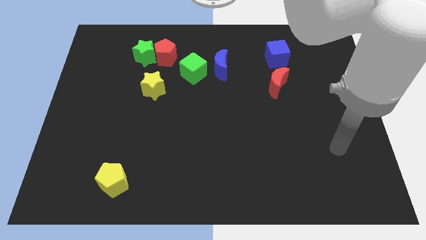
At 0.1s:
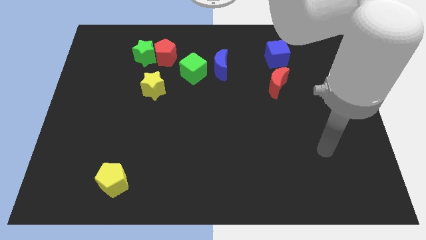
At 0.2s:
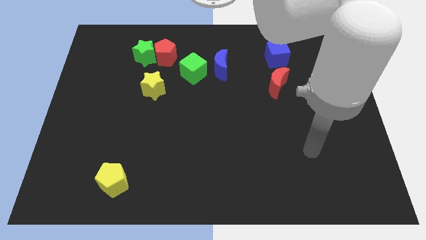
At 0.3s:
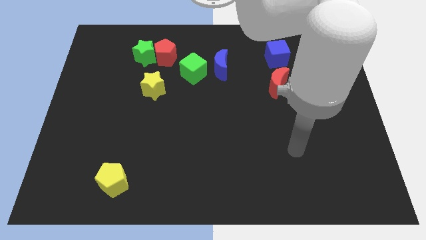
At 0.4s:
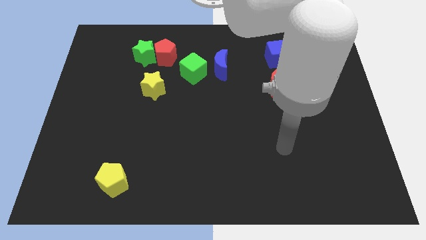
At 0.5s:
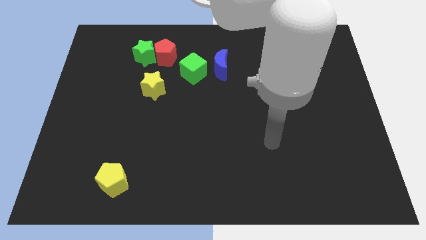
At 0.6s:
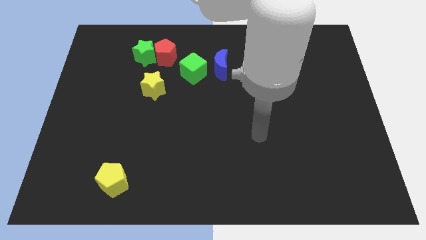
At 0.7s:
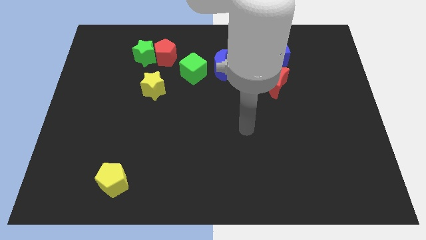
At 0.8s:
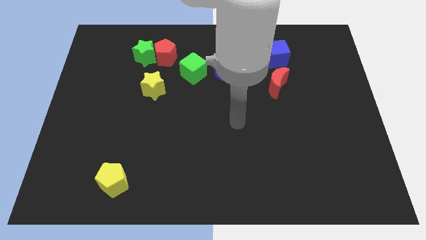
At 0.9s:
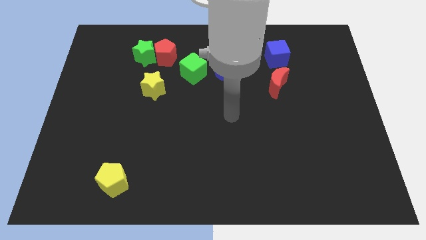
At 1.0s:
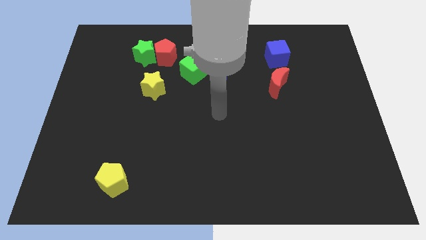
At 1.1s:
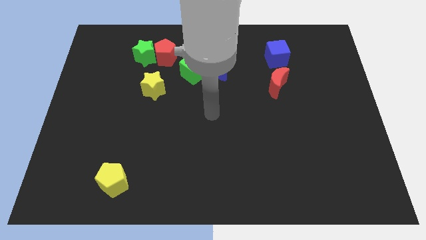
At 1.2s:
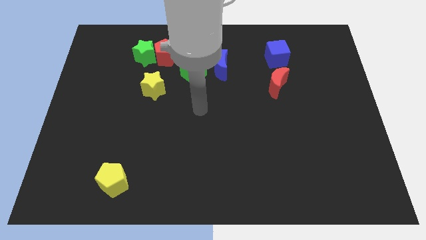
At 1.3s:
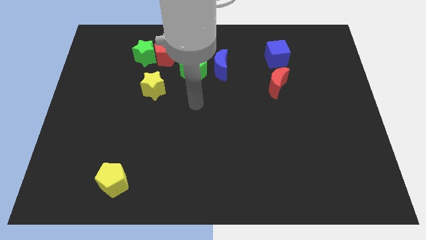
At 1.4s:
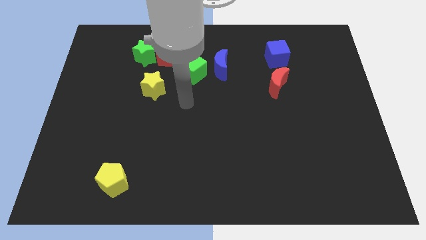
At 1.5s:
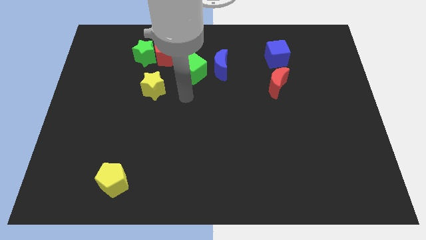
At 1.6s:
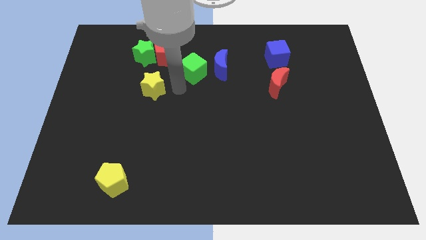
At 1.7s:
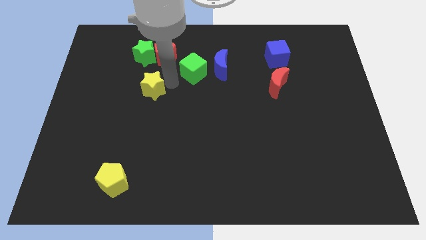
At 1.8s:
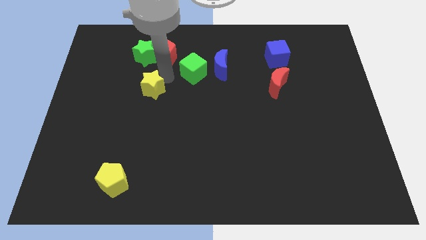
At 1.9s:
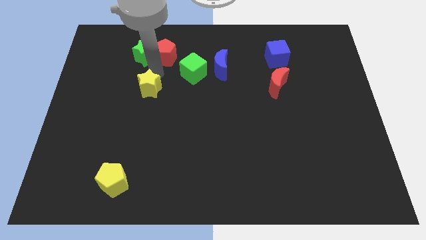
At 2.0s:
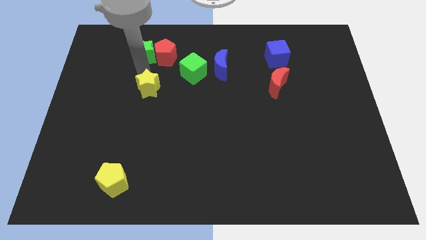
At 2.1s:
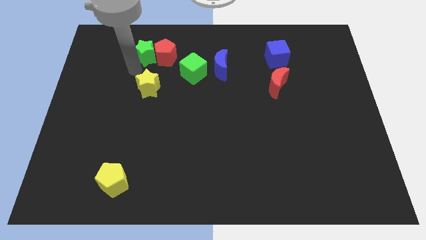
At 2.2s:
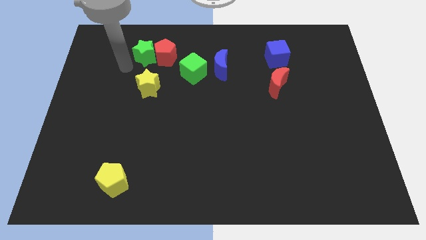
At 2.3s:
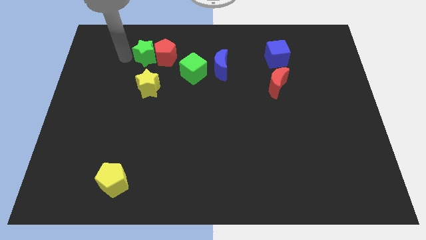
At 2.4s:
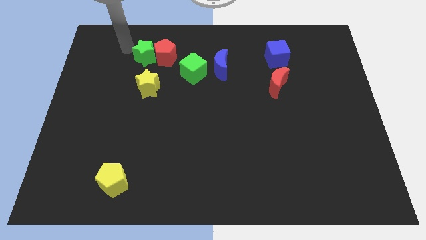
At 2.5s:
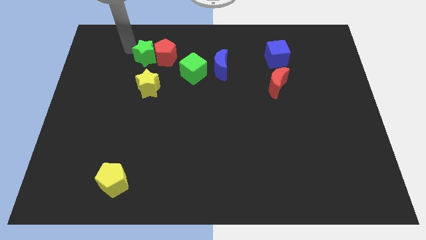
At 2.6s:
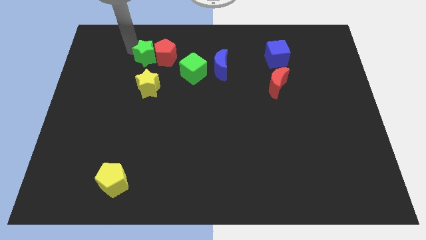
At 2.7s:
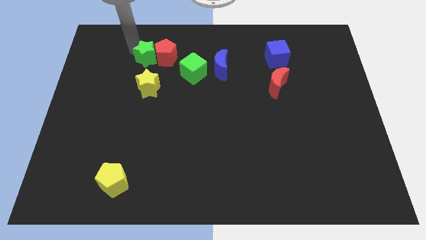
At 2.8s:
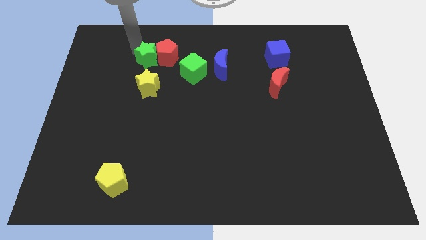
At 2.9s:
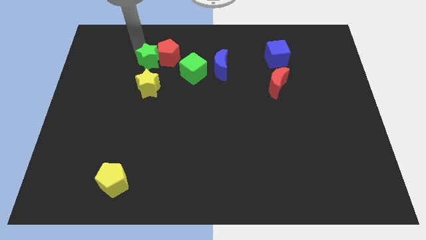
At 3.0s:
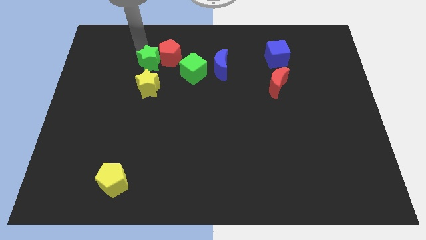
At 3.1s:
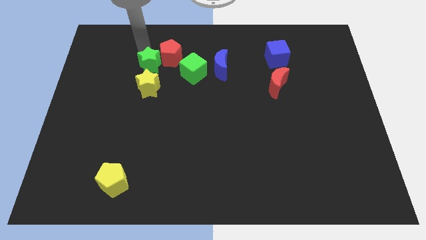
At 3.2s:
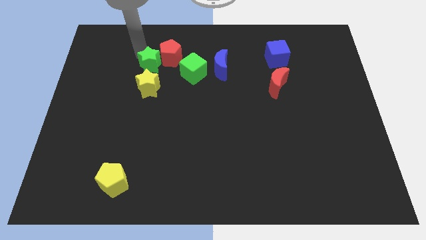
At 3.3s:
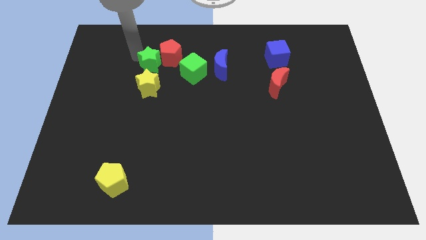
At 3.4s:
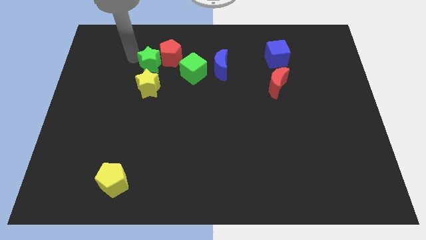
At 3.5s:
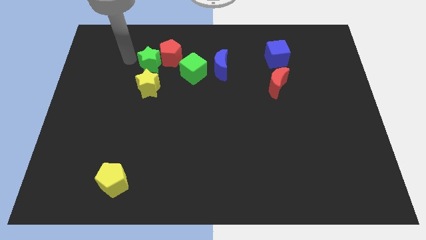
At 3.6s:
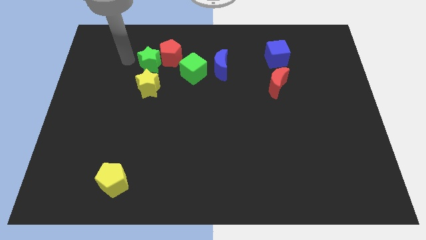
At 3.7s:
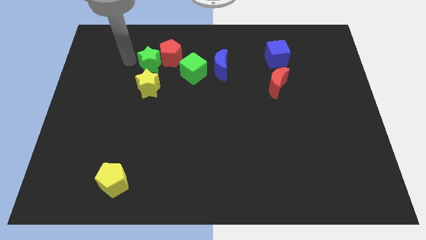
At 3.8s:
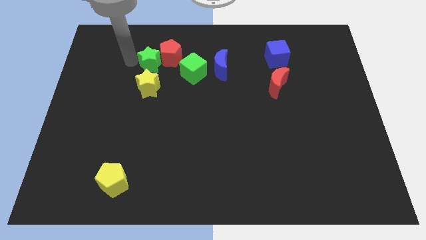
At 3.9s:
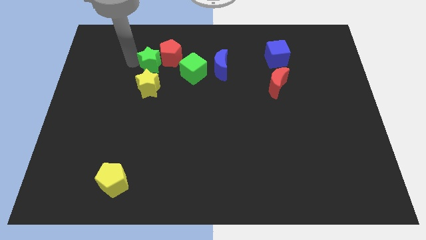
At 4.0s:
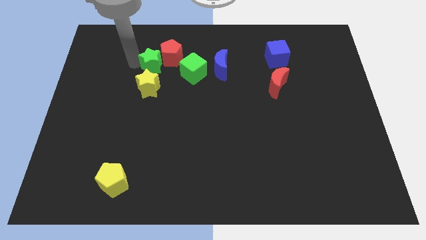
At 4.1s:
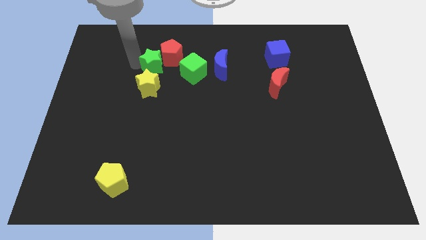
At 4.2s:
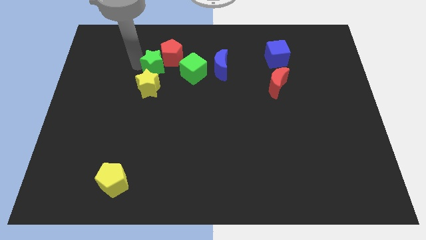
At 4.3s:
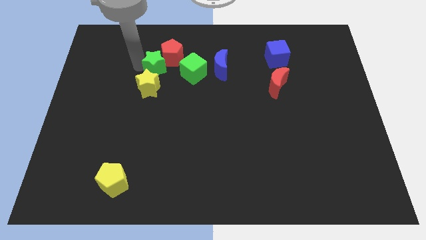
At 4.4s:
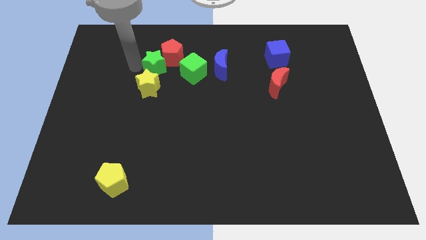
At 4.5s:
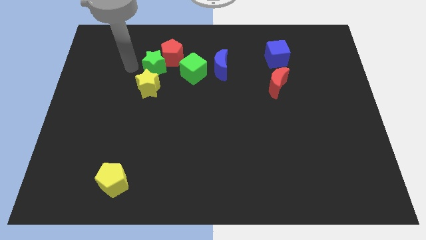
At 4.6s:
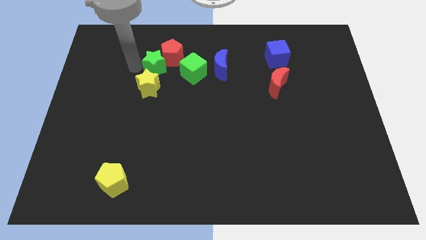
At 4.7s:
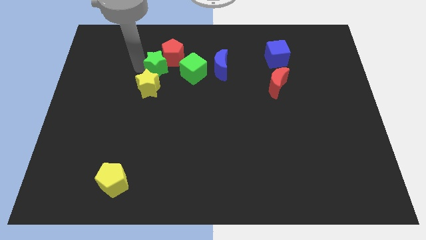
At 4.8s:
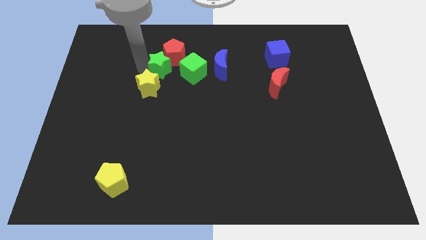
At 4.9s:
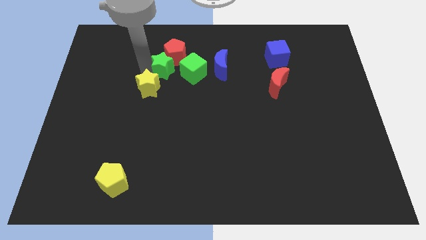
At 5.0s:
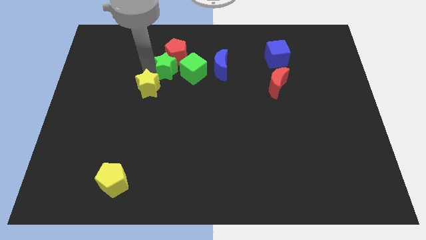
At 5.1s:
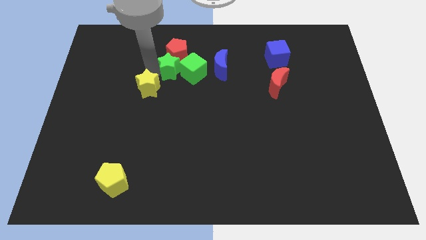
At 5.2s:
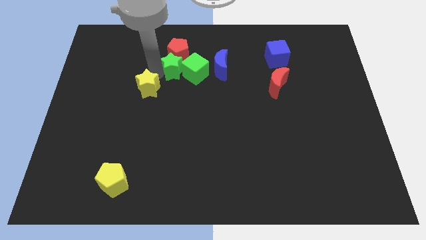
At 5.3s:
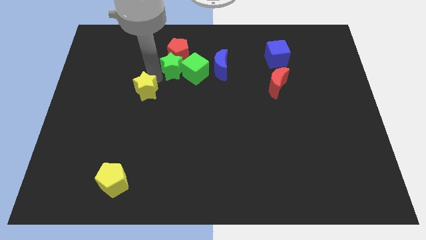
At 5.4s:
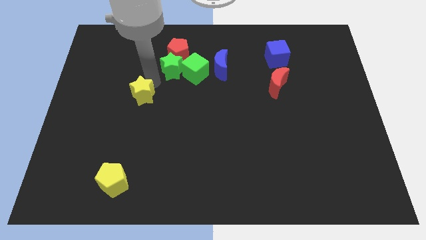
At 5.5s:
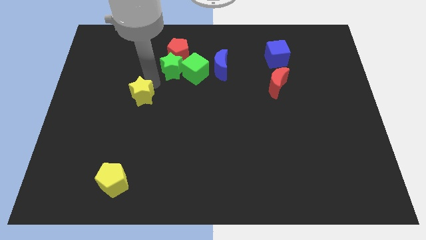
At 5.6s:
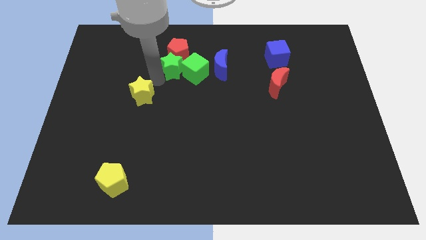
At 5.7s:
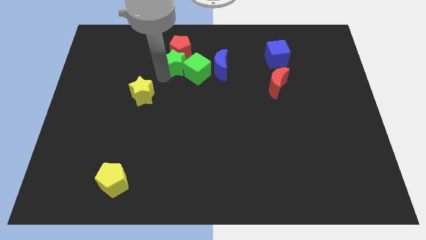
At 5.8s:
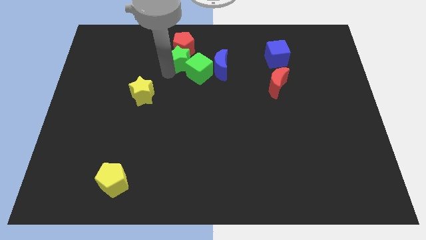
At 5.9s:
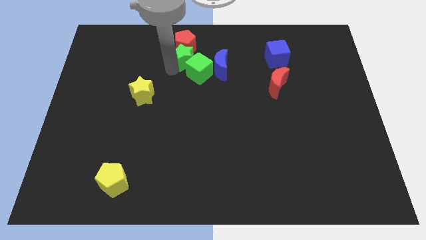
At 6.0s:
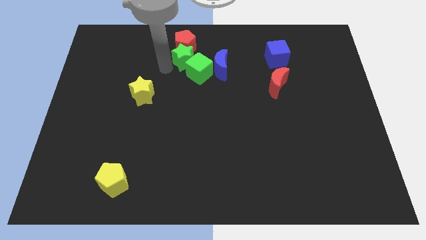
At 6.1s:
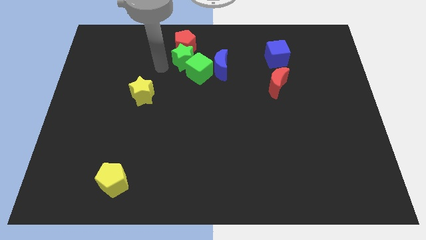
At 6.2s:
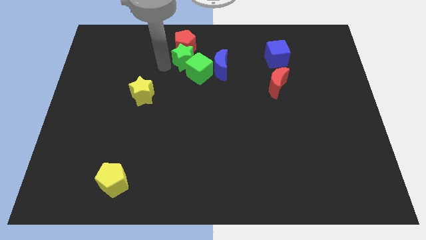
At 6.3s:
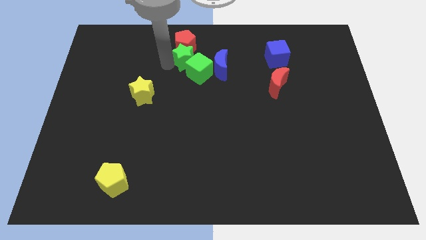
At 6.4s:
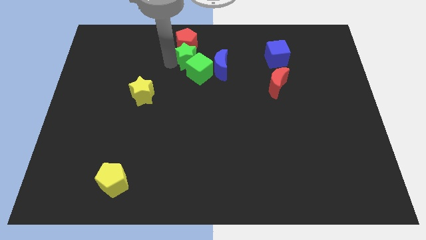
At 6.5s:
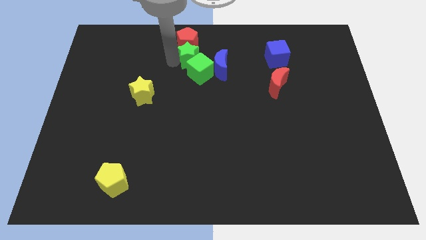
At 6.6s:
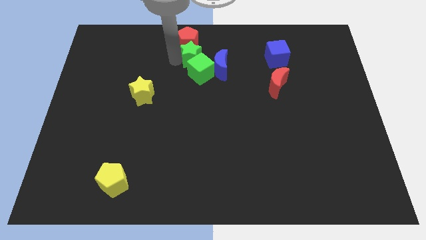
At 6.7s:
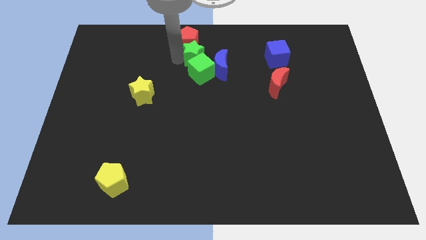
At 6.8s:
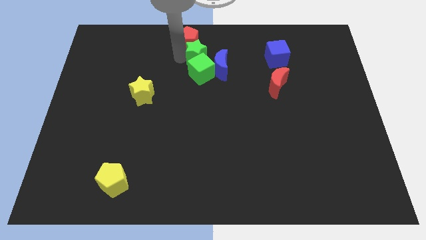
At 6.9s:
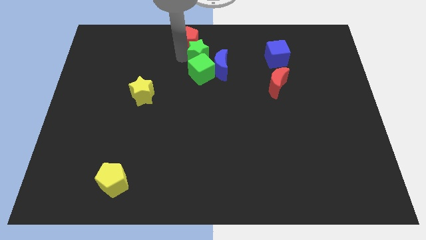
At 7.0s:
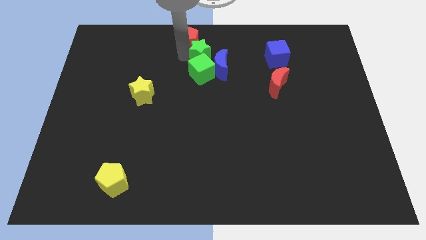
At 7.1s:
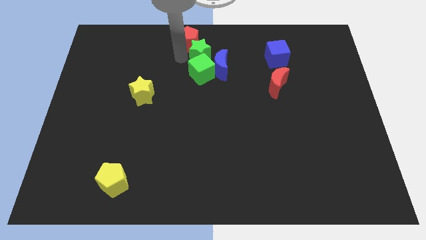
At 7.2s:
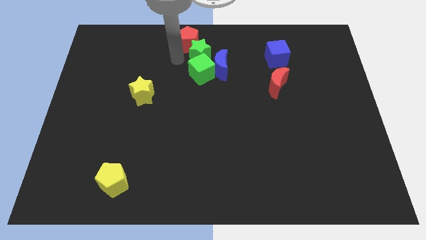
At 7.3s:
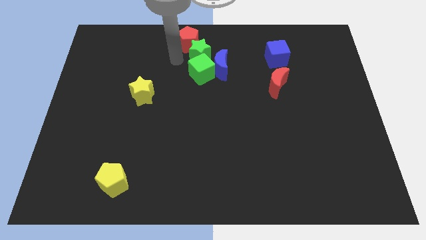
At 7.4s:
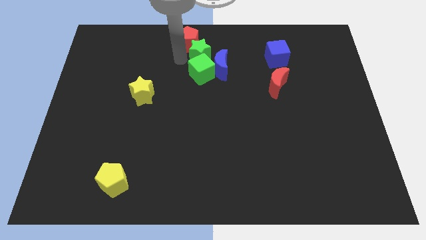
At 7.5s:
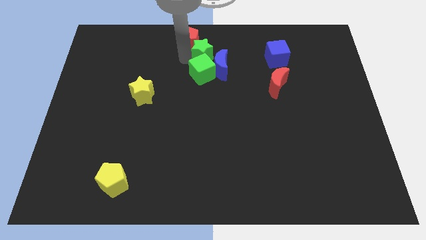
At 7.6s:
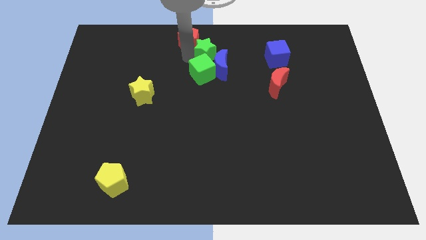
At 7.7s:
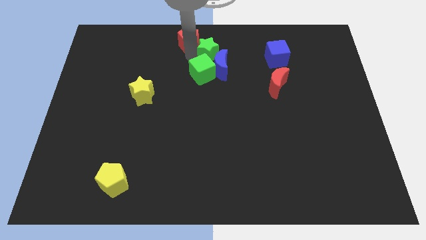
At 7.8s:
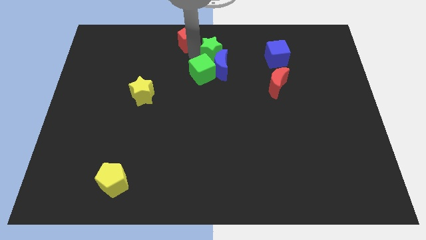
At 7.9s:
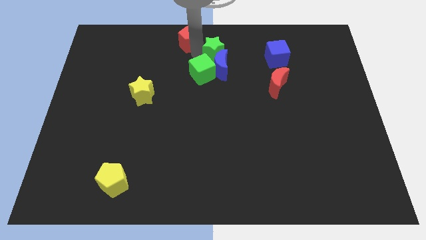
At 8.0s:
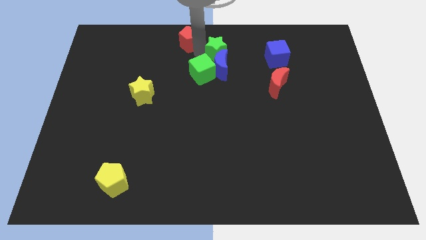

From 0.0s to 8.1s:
move the green star to the left of the blue cube
